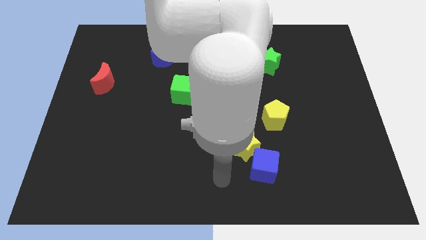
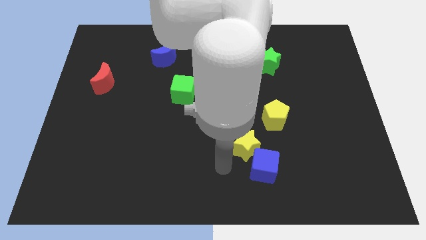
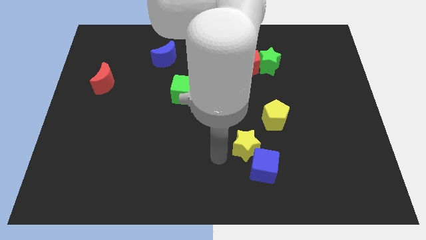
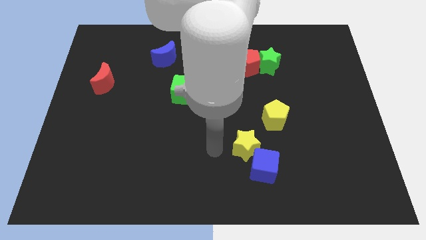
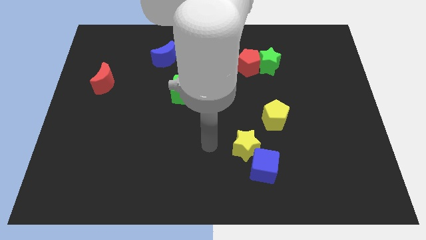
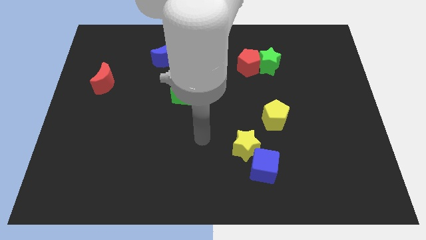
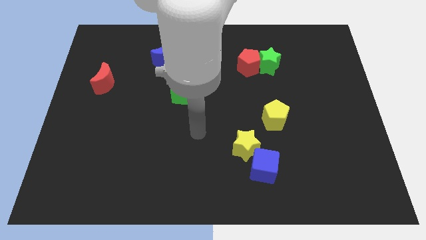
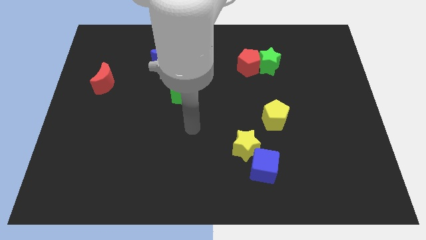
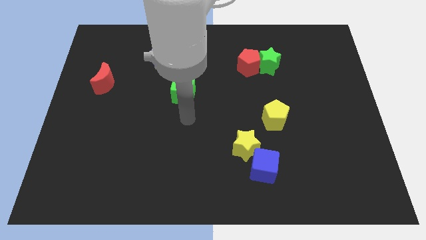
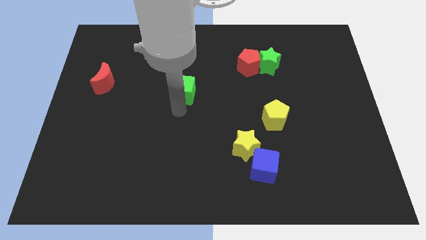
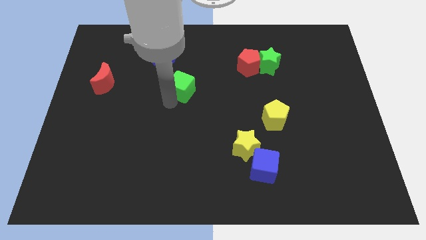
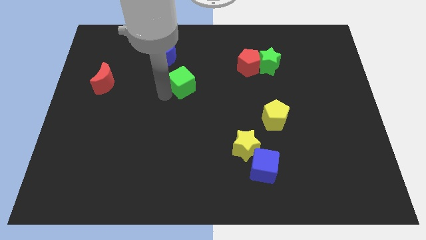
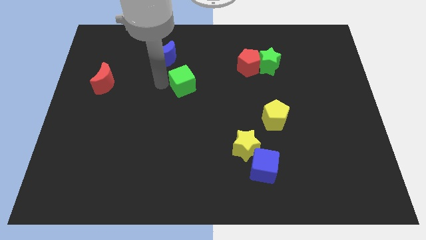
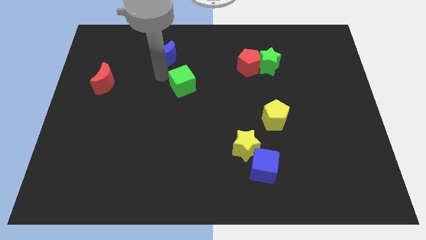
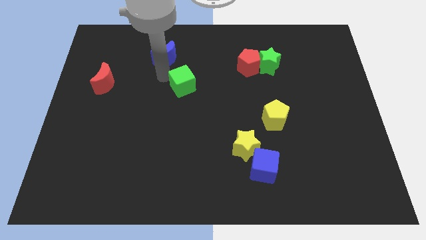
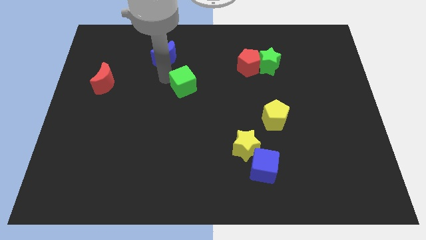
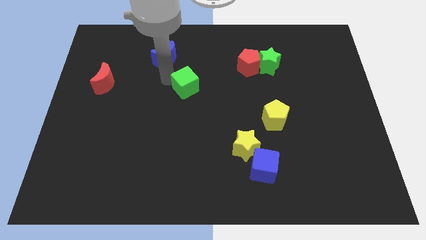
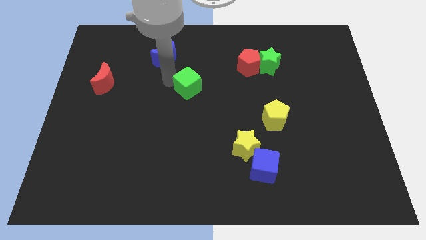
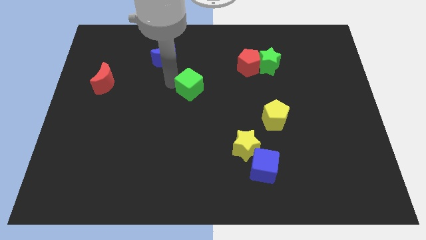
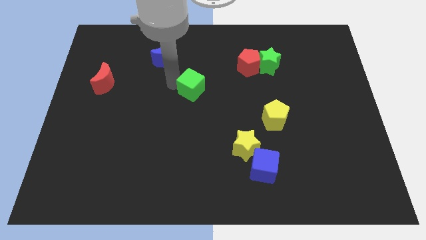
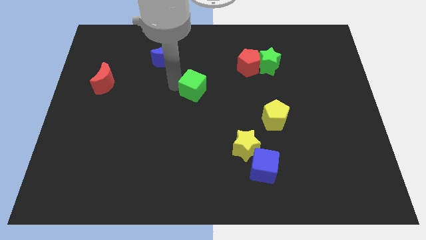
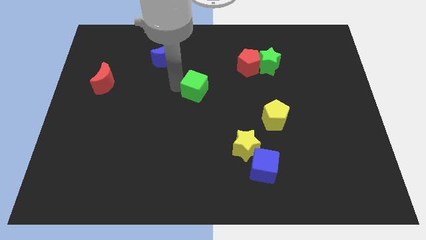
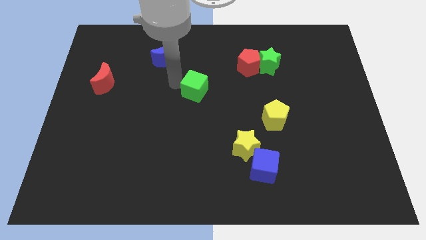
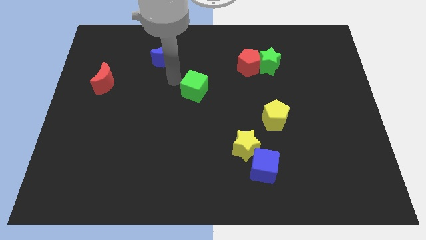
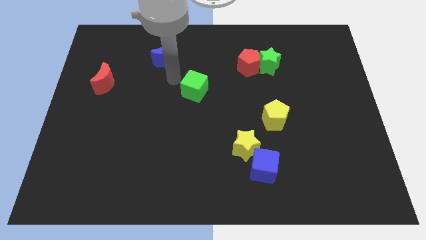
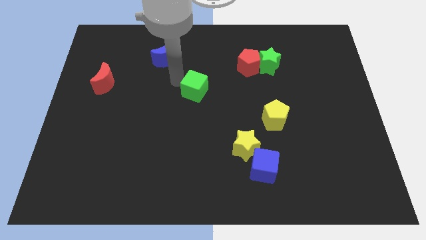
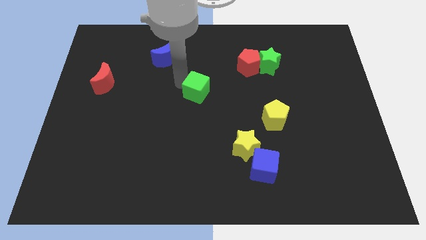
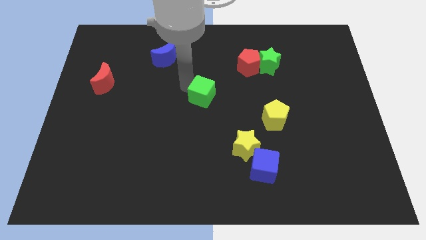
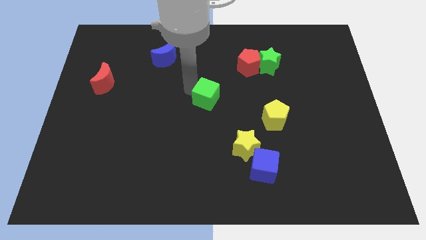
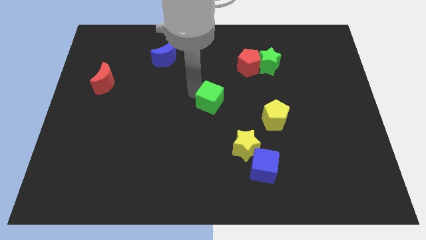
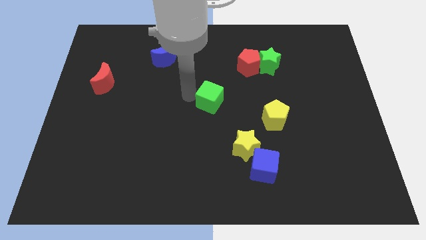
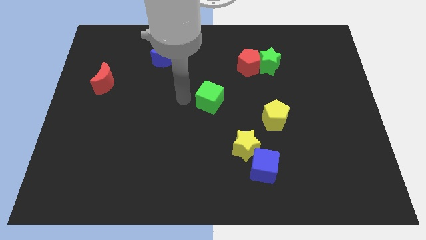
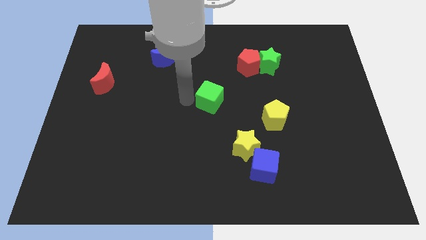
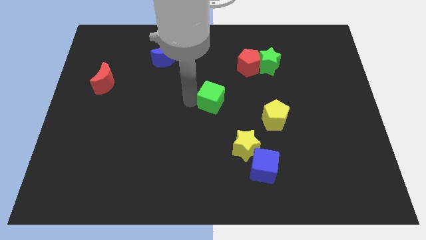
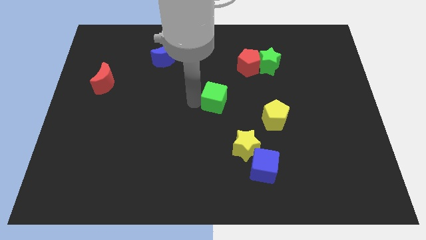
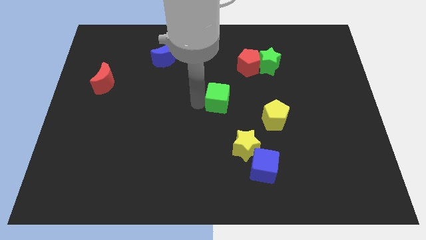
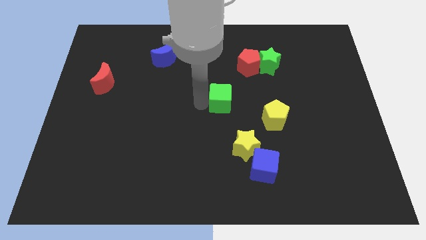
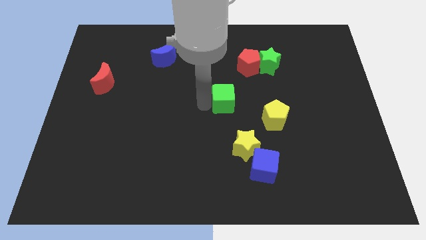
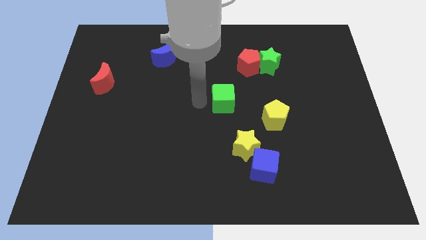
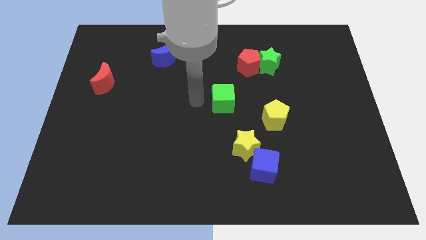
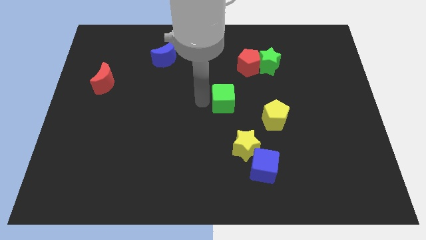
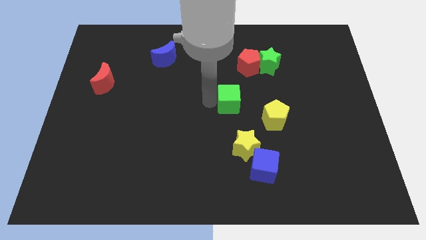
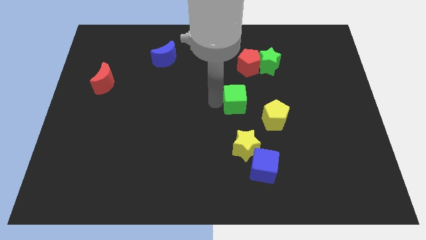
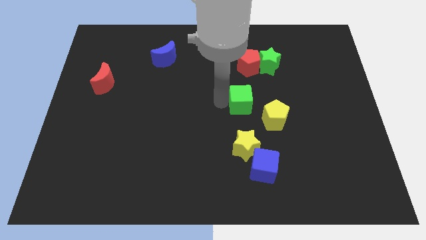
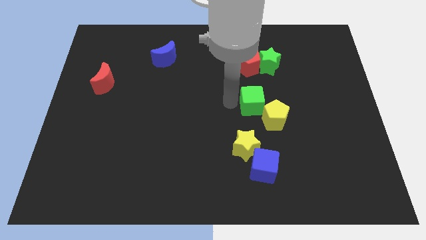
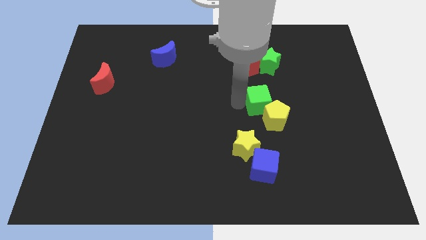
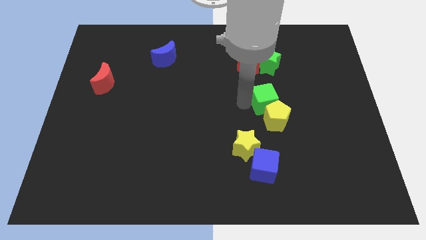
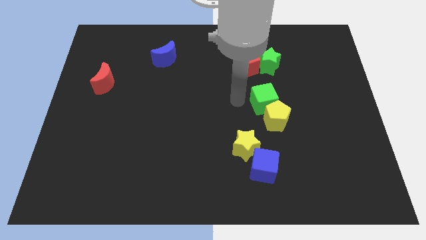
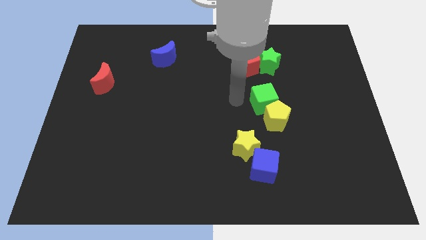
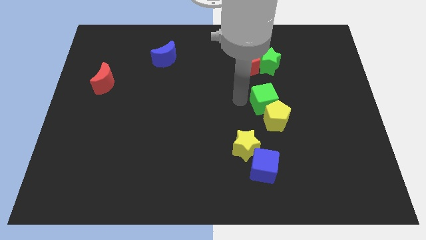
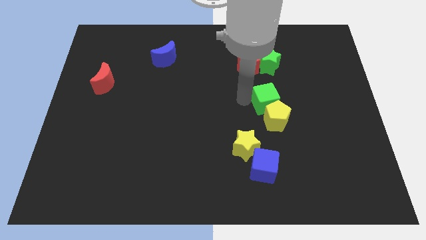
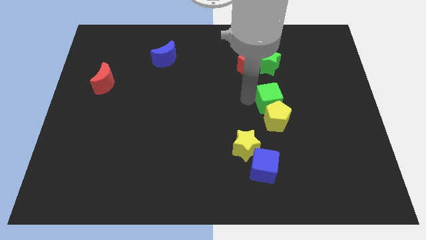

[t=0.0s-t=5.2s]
push the green cube right

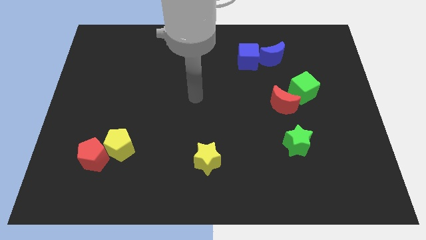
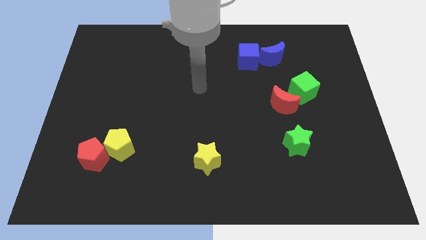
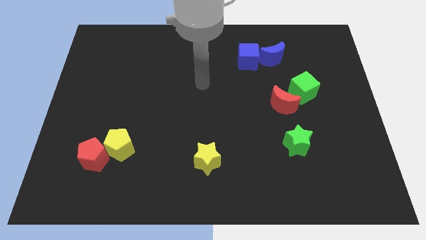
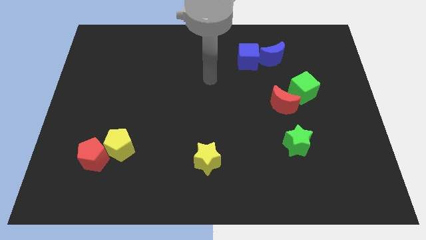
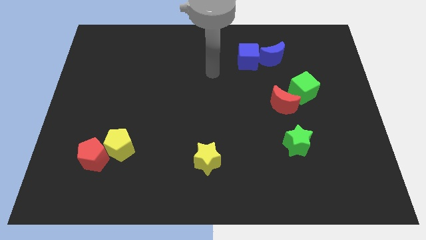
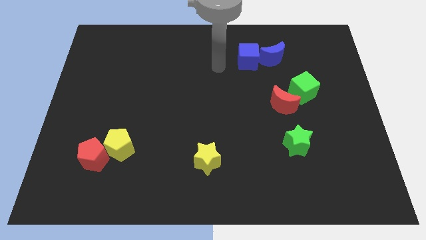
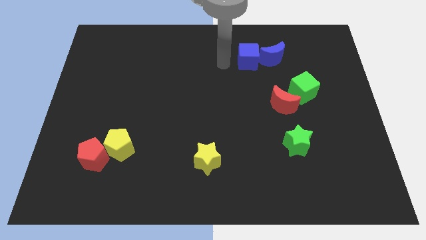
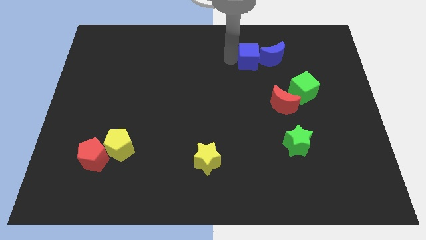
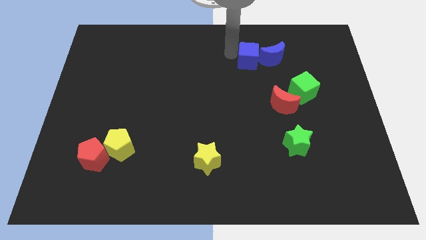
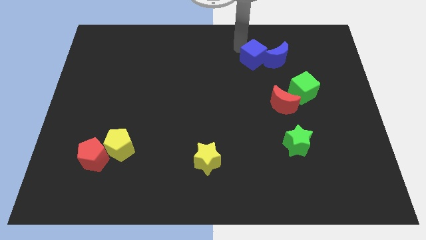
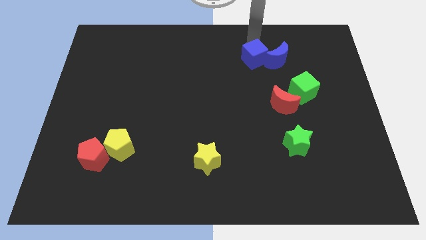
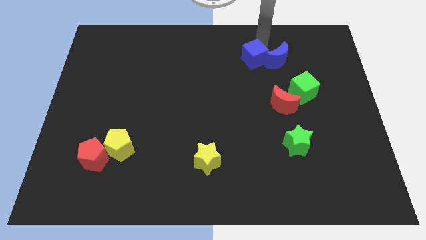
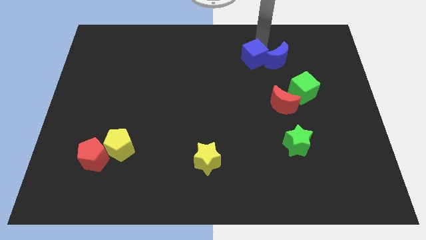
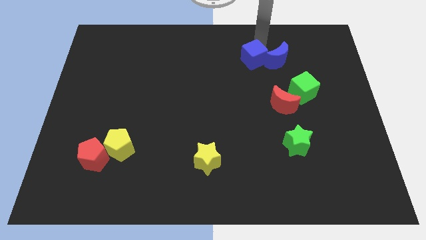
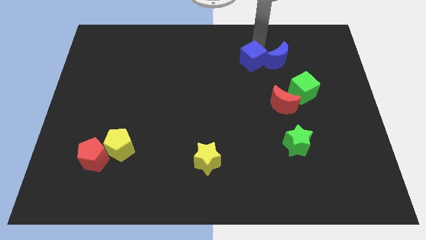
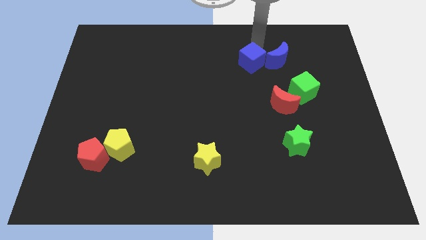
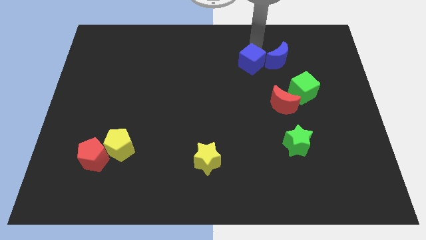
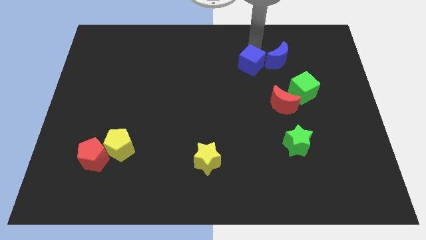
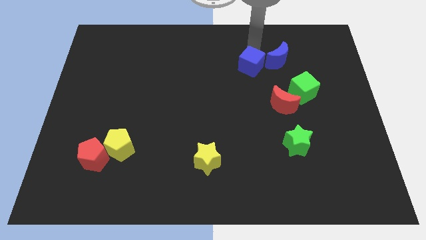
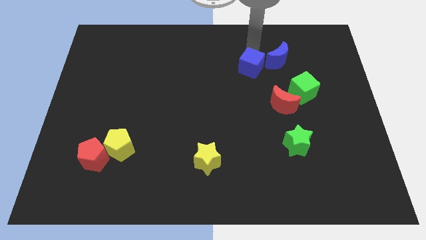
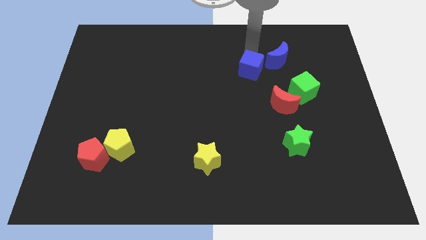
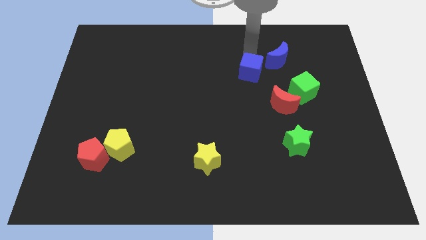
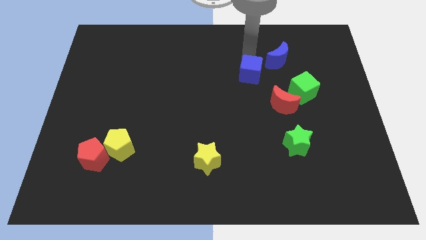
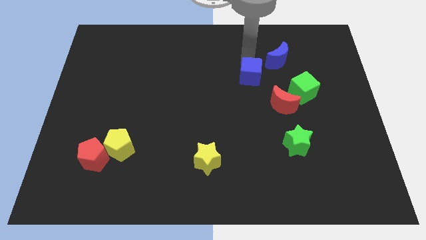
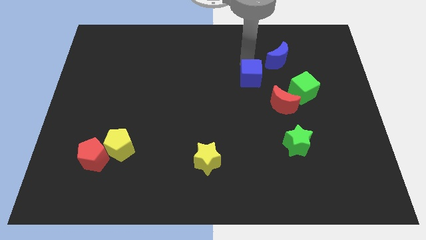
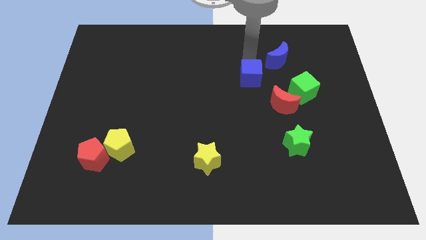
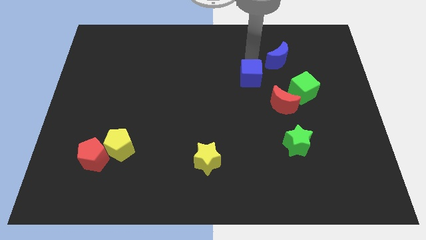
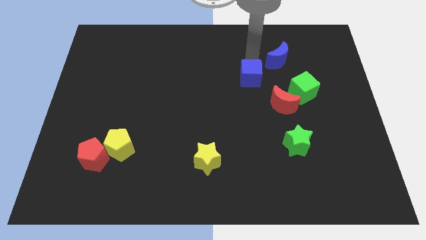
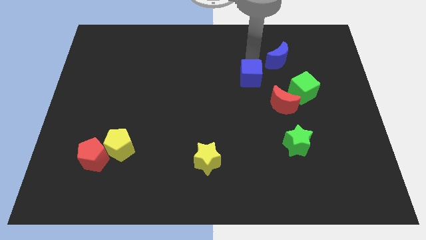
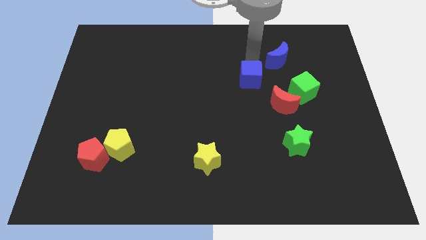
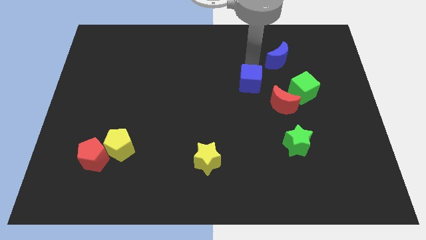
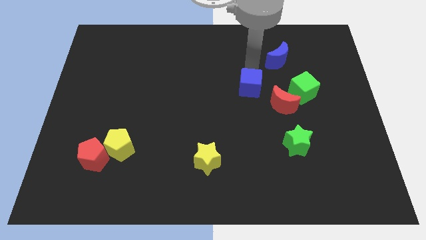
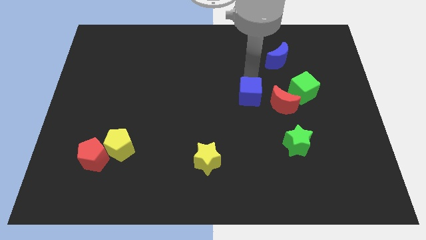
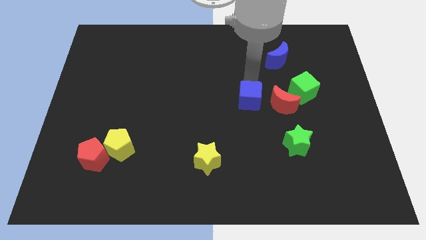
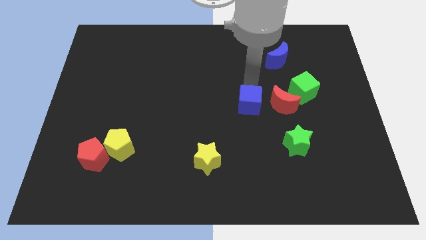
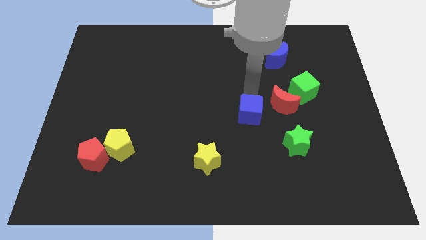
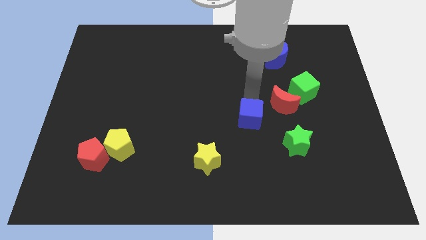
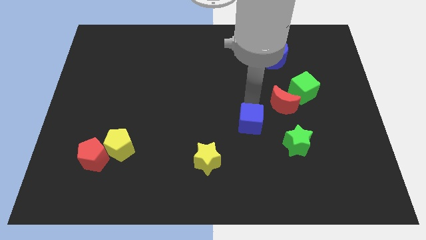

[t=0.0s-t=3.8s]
push the blue cube downwards
